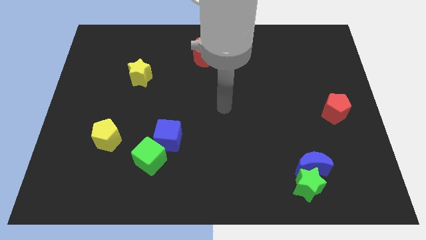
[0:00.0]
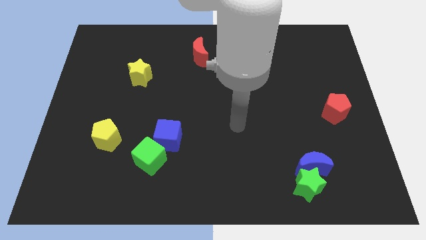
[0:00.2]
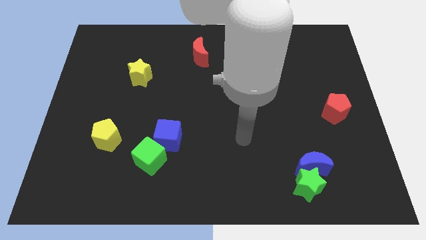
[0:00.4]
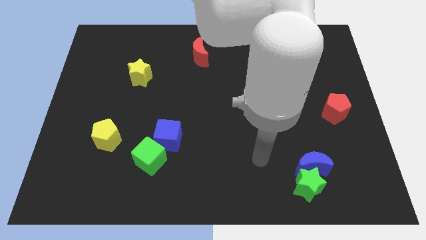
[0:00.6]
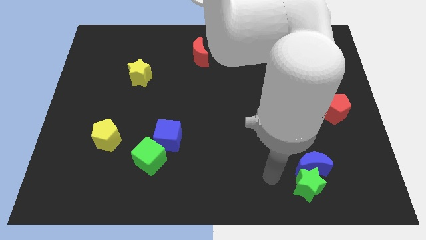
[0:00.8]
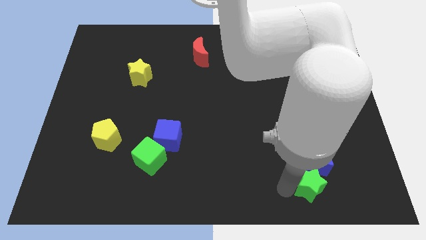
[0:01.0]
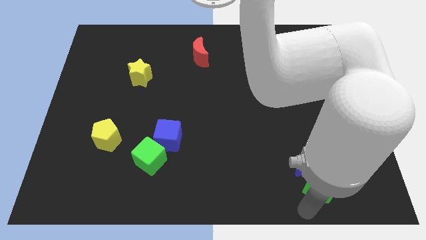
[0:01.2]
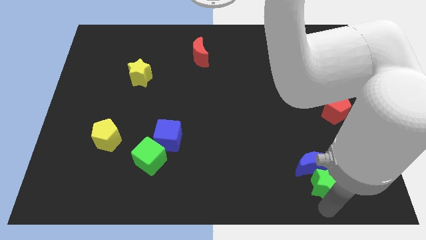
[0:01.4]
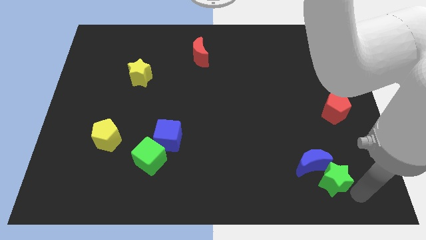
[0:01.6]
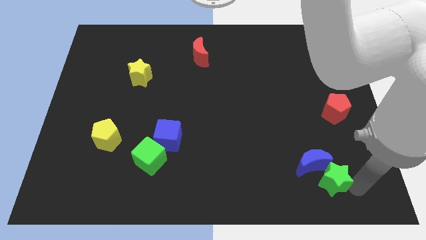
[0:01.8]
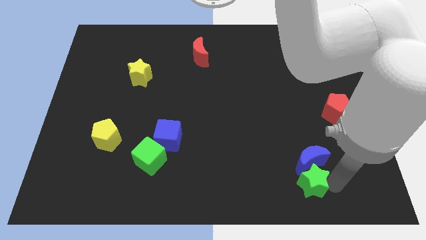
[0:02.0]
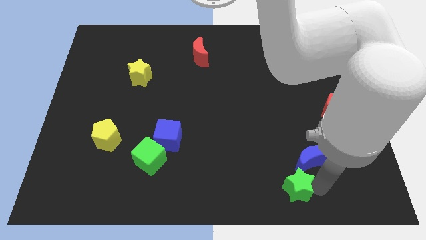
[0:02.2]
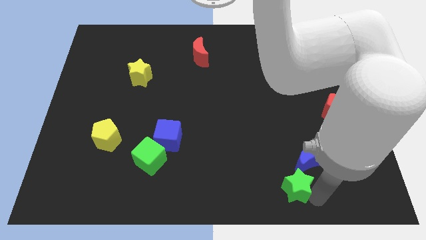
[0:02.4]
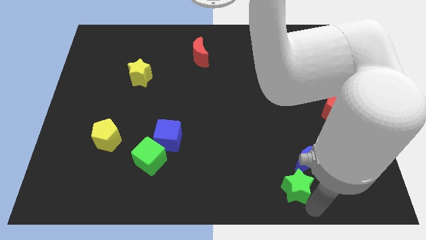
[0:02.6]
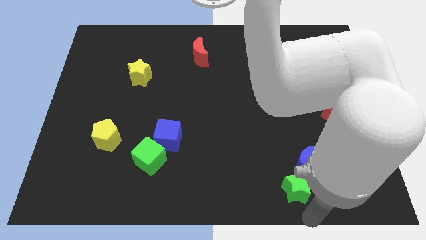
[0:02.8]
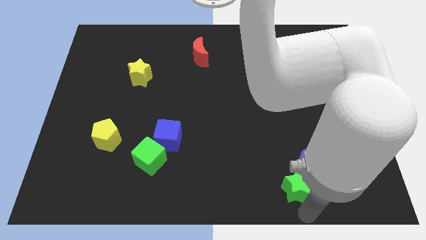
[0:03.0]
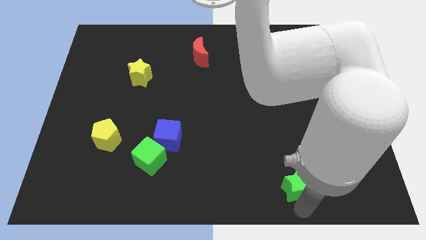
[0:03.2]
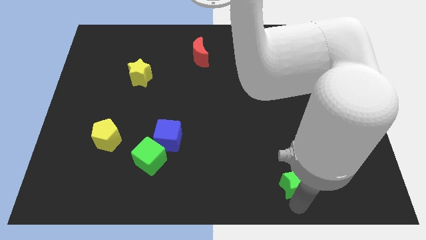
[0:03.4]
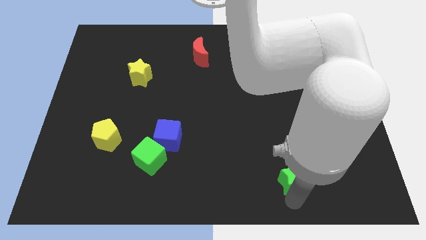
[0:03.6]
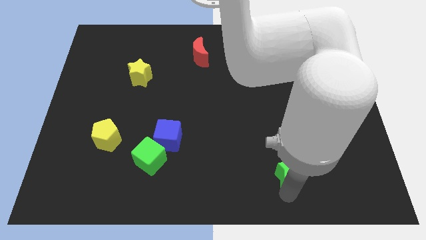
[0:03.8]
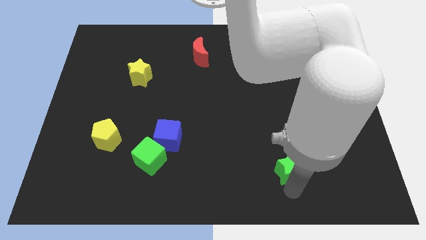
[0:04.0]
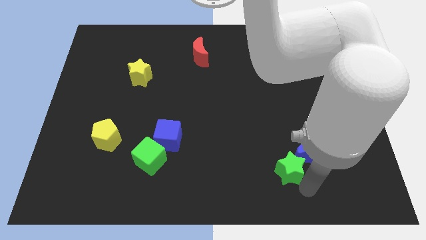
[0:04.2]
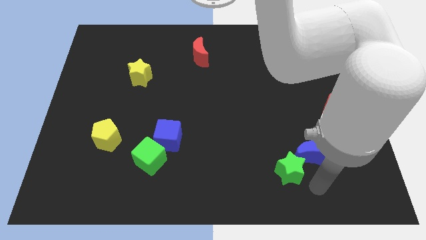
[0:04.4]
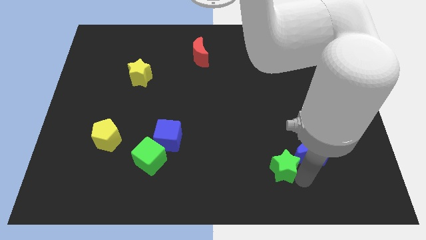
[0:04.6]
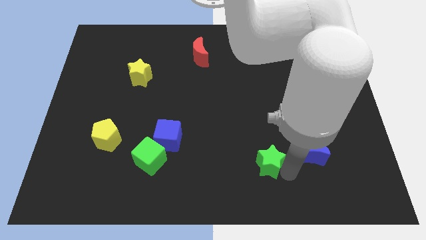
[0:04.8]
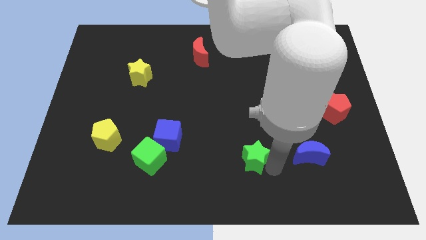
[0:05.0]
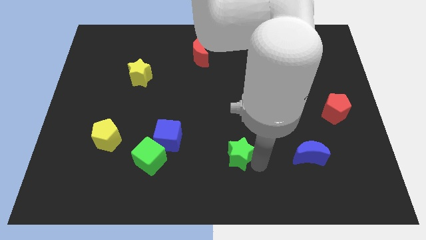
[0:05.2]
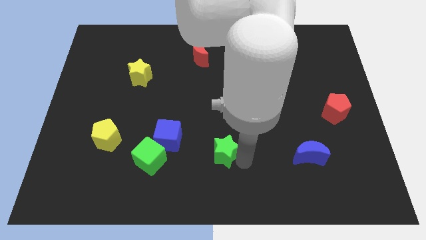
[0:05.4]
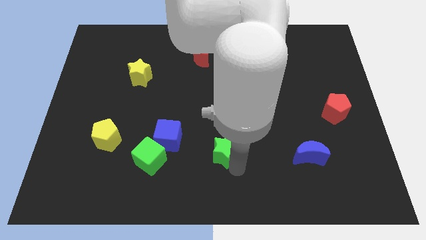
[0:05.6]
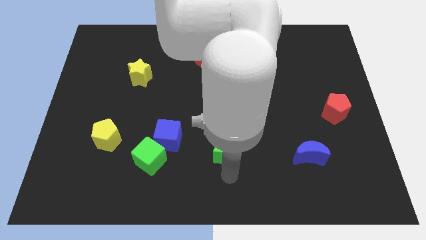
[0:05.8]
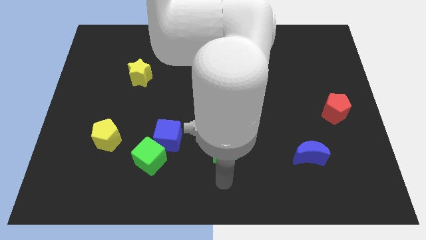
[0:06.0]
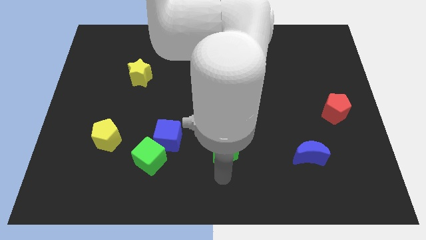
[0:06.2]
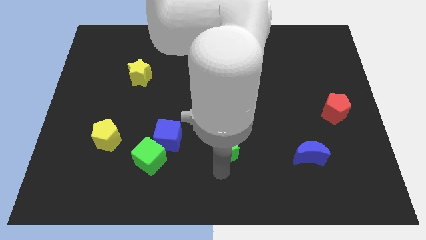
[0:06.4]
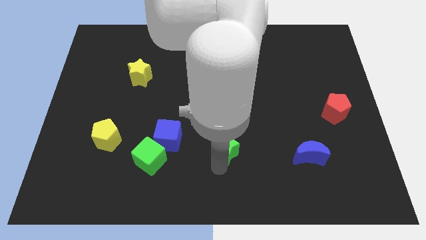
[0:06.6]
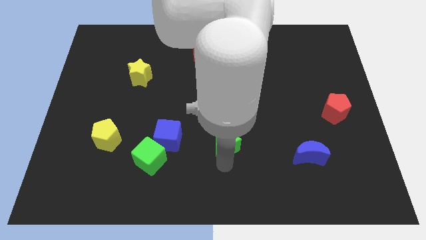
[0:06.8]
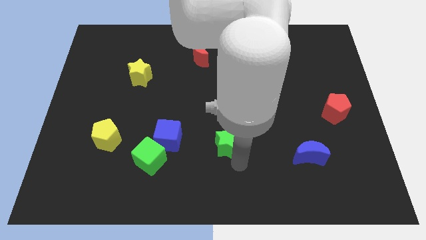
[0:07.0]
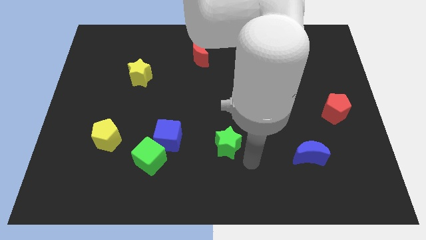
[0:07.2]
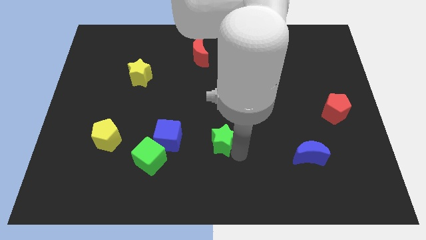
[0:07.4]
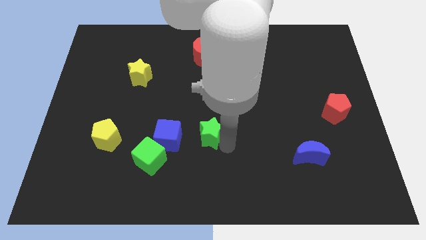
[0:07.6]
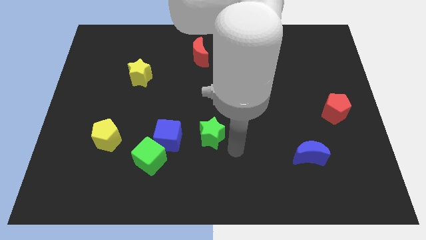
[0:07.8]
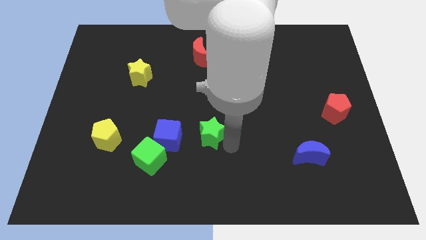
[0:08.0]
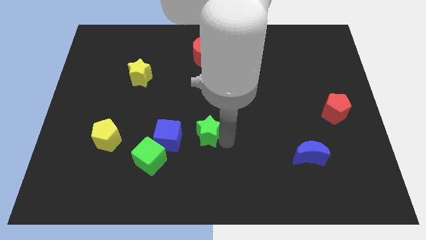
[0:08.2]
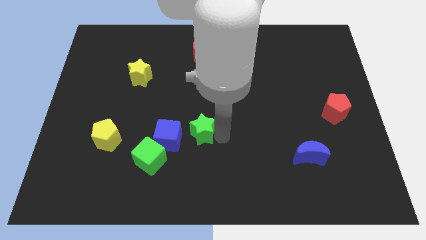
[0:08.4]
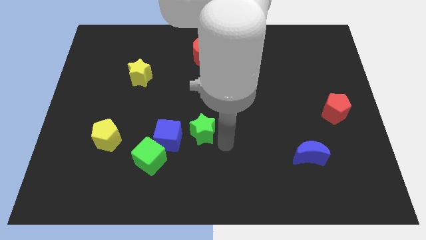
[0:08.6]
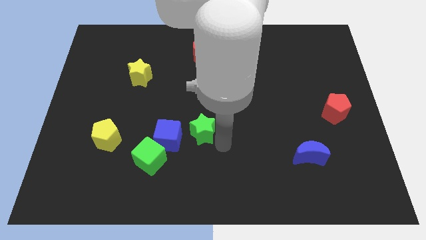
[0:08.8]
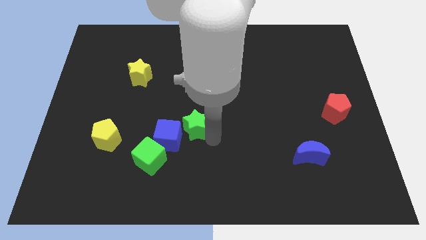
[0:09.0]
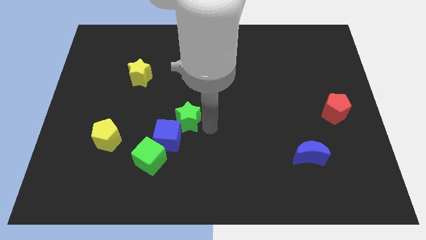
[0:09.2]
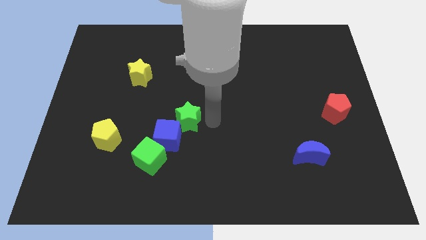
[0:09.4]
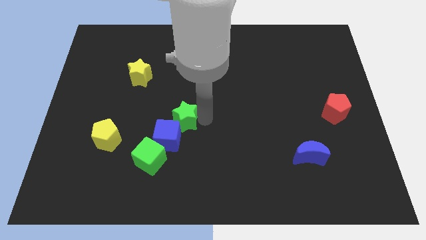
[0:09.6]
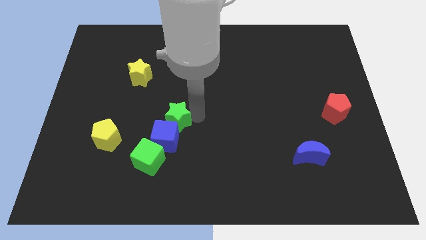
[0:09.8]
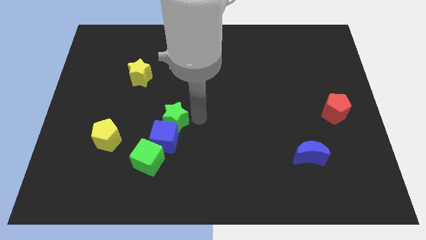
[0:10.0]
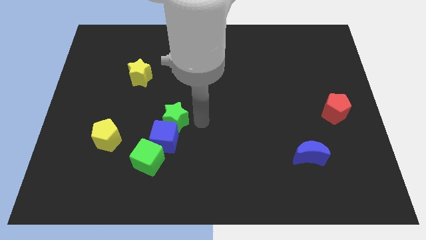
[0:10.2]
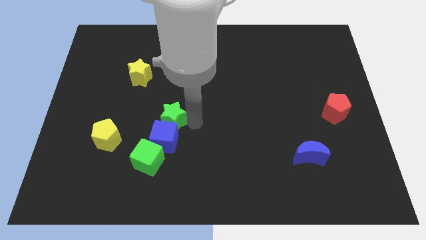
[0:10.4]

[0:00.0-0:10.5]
put the green star to the top left side of the blue cube
